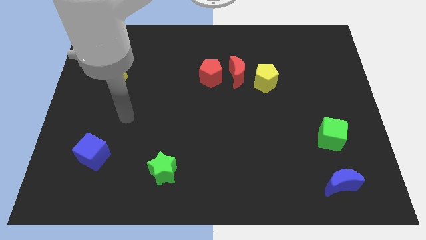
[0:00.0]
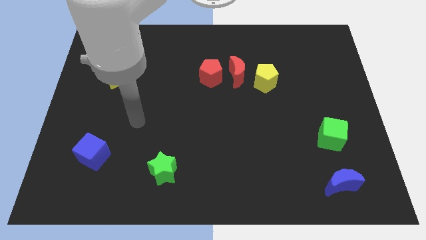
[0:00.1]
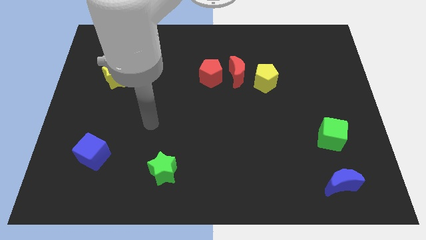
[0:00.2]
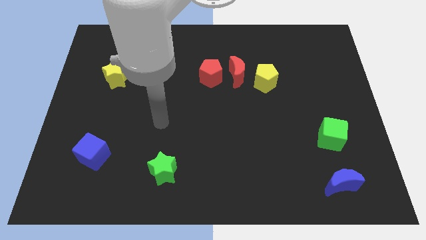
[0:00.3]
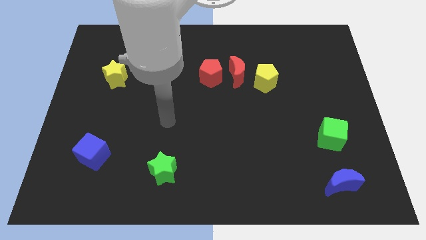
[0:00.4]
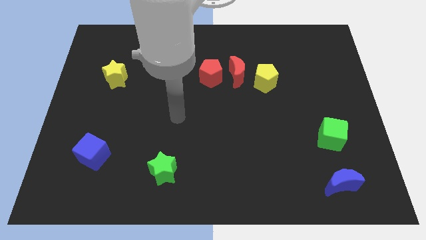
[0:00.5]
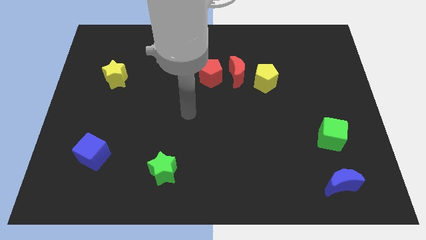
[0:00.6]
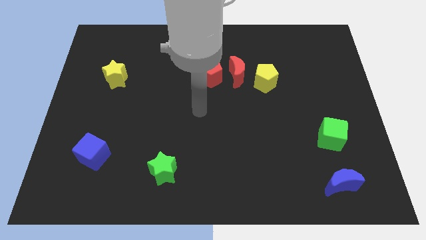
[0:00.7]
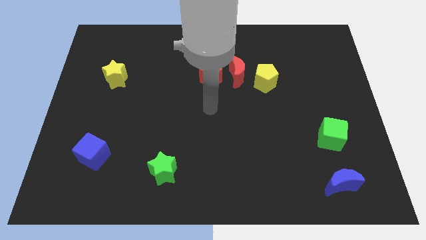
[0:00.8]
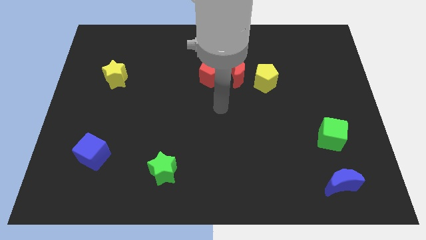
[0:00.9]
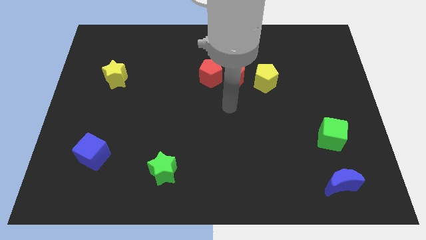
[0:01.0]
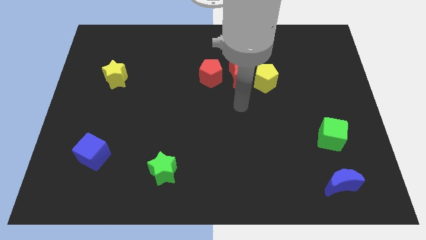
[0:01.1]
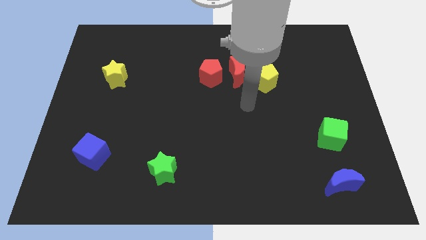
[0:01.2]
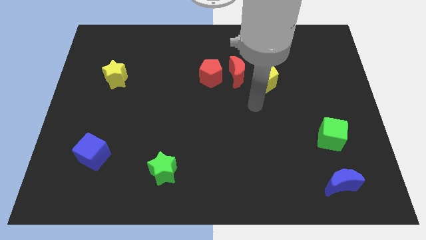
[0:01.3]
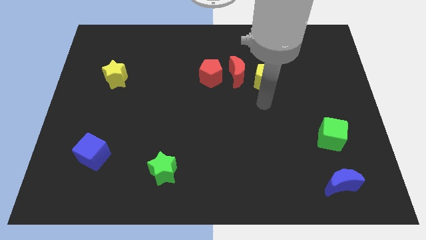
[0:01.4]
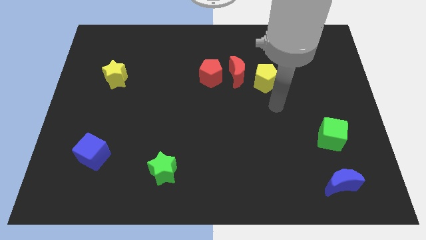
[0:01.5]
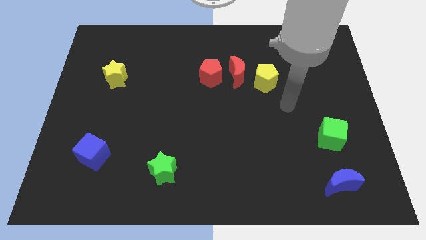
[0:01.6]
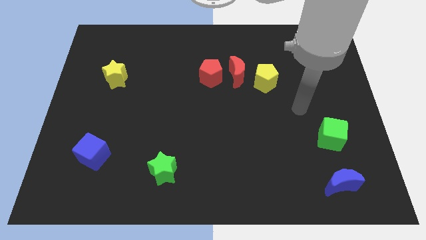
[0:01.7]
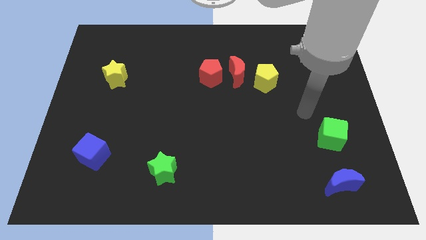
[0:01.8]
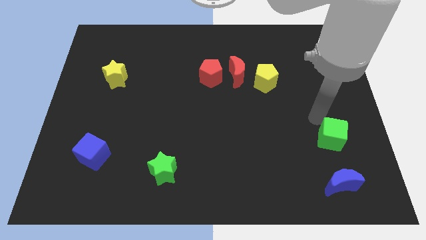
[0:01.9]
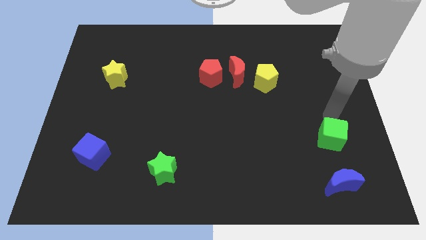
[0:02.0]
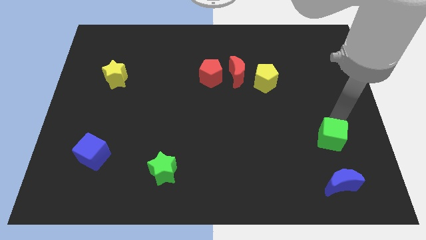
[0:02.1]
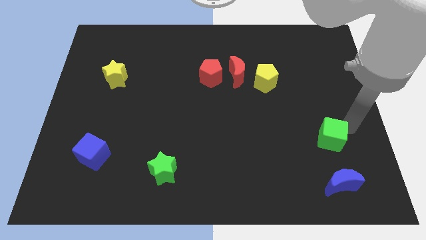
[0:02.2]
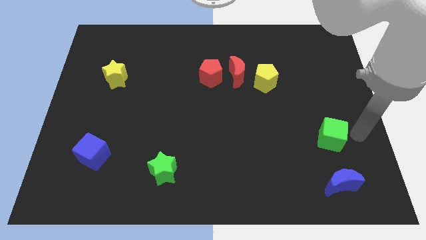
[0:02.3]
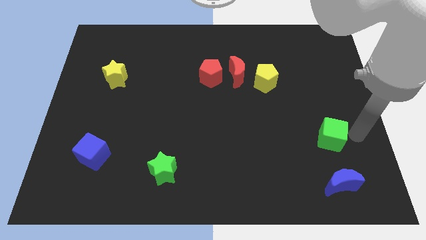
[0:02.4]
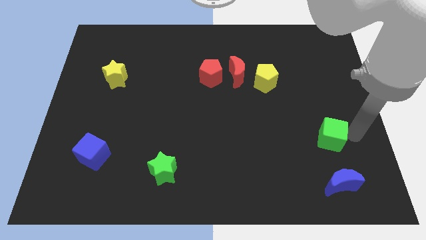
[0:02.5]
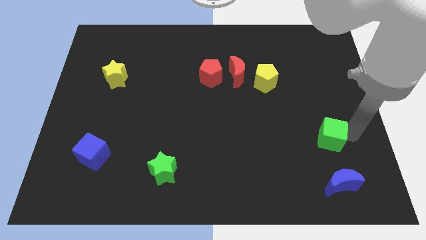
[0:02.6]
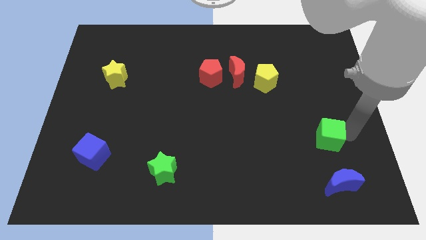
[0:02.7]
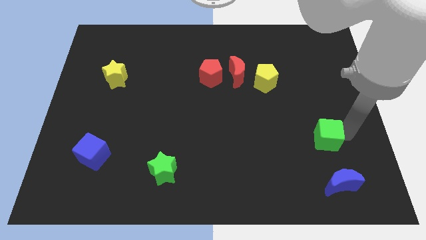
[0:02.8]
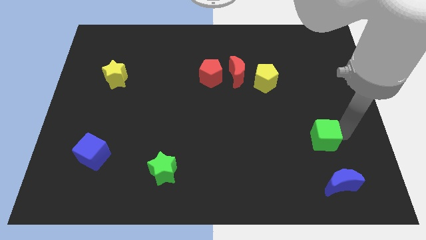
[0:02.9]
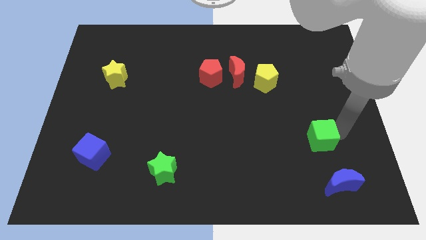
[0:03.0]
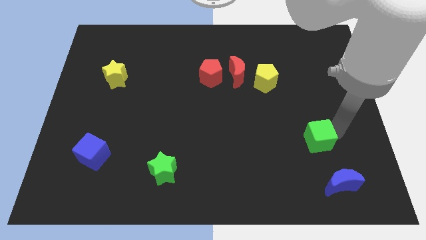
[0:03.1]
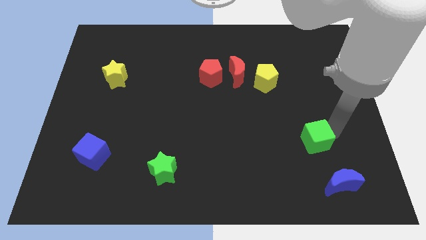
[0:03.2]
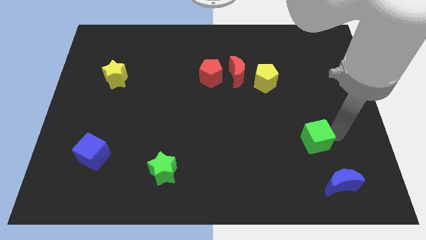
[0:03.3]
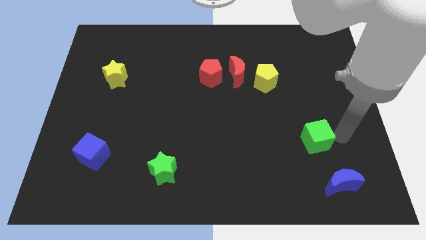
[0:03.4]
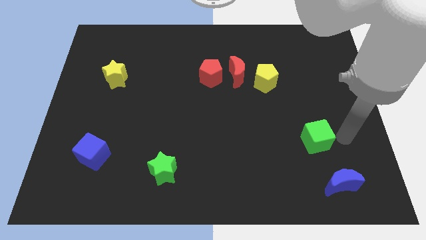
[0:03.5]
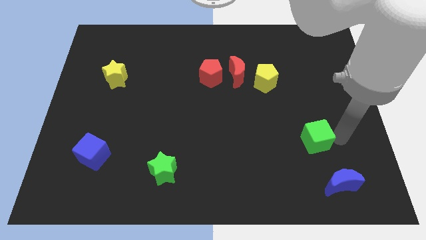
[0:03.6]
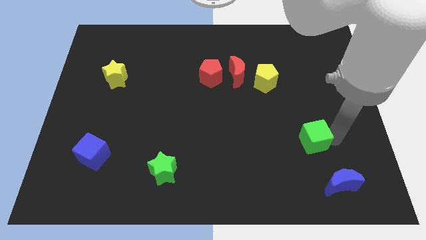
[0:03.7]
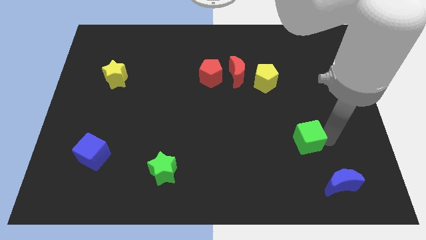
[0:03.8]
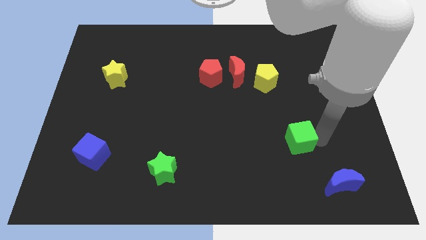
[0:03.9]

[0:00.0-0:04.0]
slightly move the green cube to the left

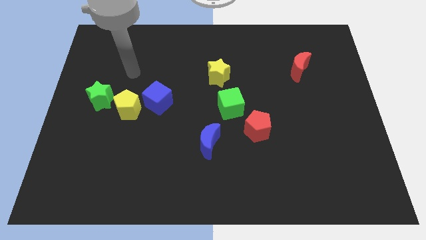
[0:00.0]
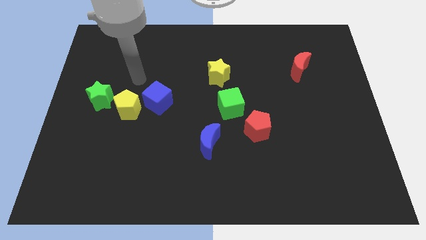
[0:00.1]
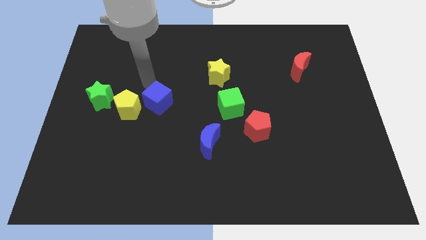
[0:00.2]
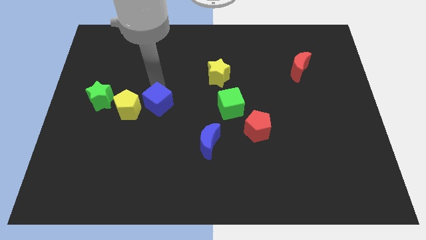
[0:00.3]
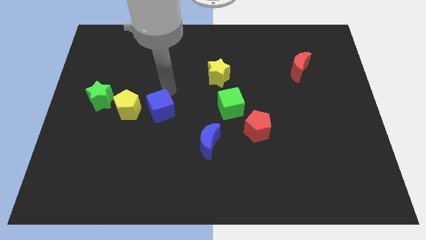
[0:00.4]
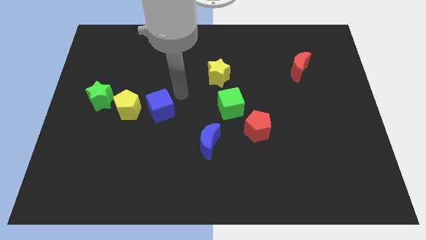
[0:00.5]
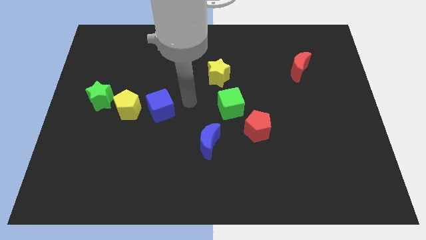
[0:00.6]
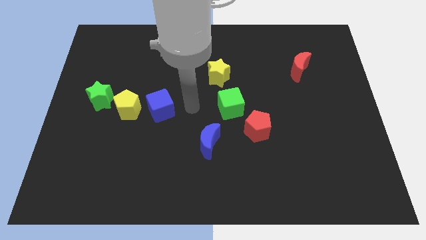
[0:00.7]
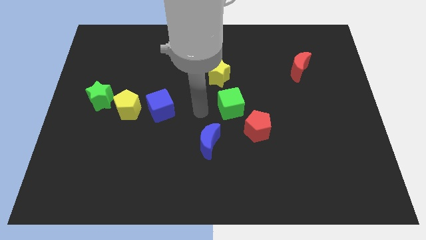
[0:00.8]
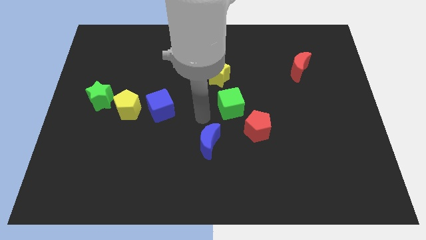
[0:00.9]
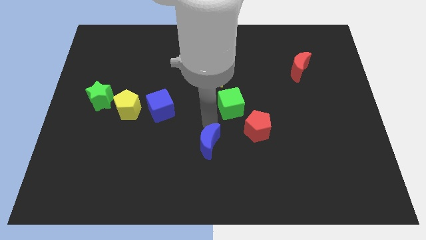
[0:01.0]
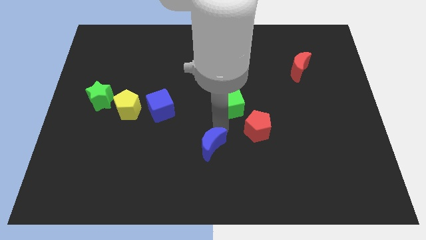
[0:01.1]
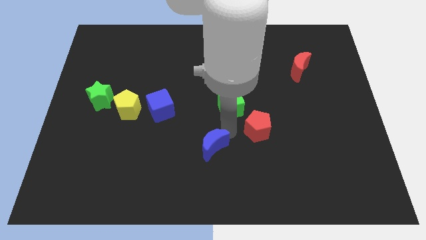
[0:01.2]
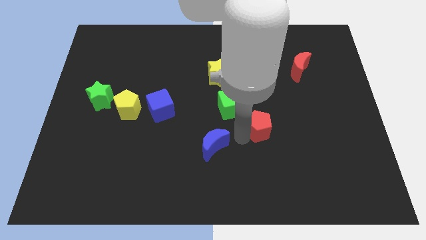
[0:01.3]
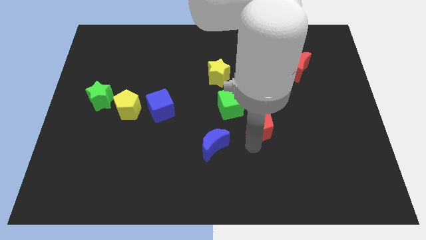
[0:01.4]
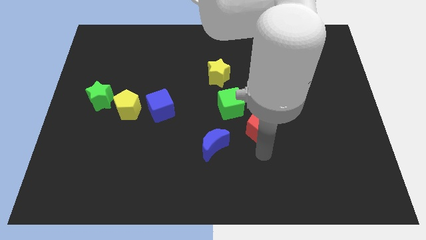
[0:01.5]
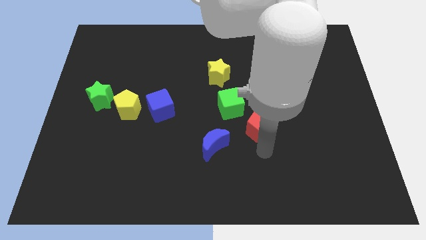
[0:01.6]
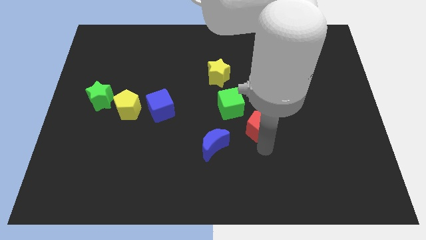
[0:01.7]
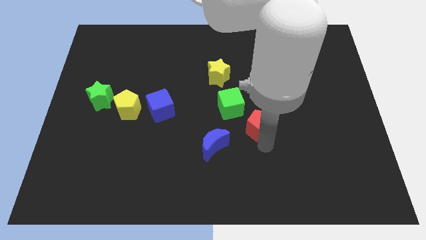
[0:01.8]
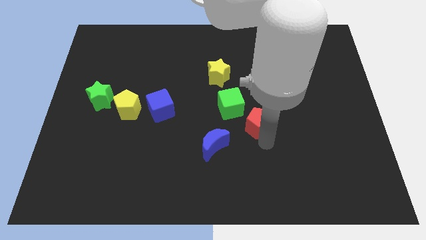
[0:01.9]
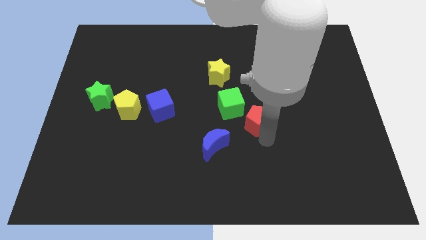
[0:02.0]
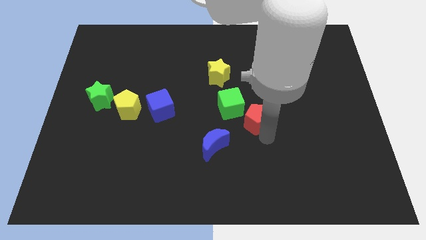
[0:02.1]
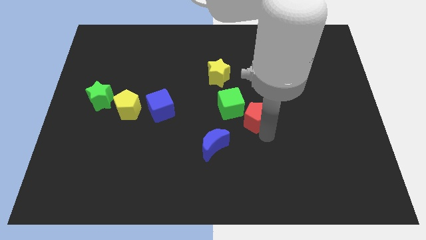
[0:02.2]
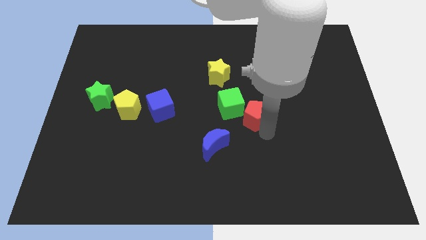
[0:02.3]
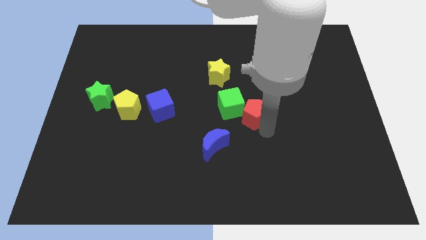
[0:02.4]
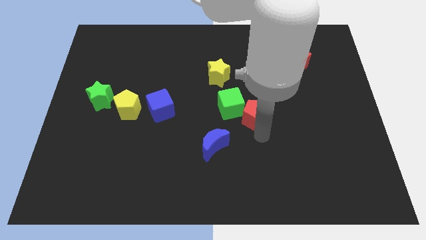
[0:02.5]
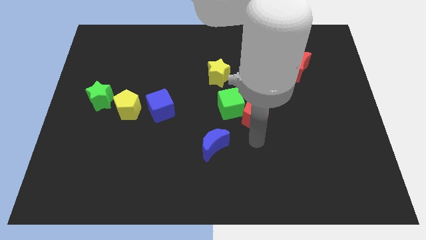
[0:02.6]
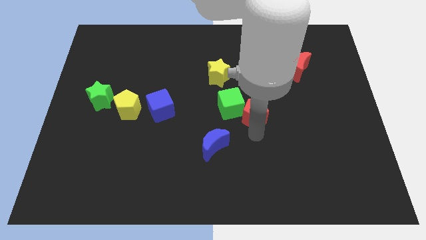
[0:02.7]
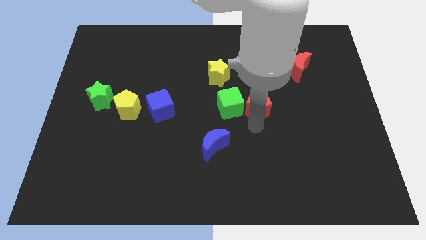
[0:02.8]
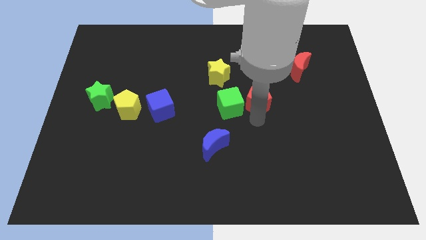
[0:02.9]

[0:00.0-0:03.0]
slightly slide the red pentagon upwards

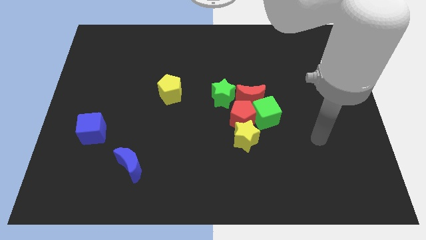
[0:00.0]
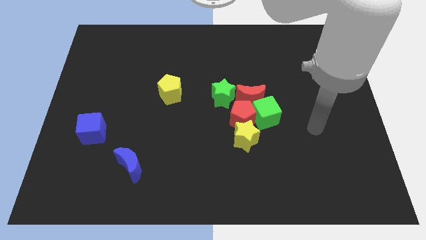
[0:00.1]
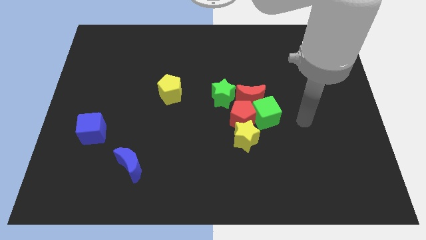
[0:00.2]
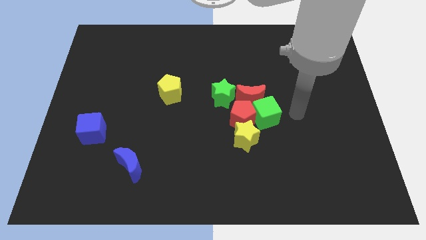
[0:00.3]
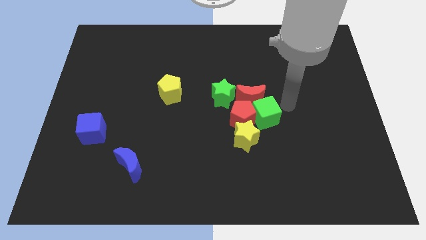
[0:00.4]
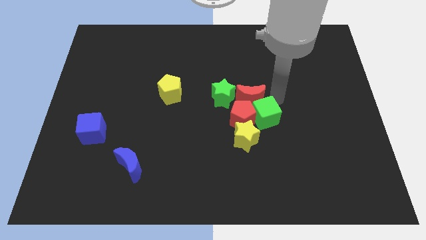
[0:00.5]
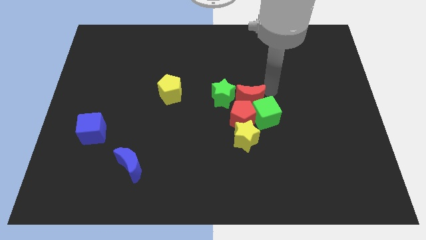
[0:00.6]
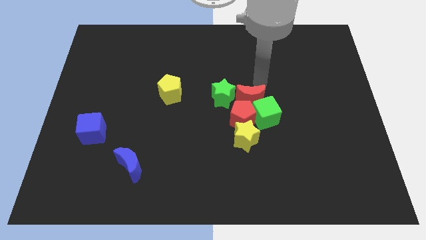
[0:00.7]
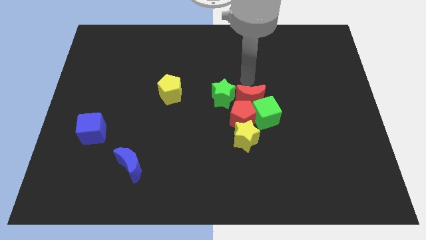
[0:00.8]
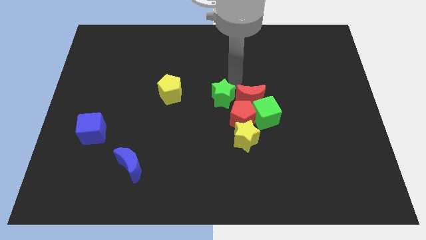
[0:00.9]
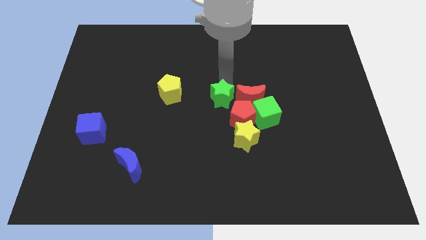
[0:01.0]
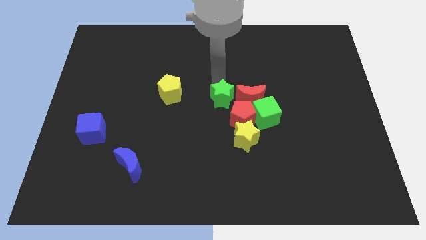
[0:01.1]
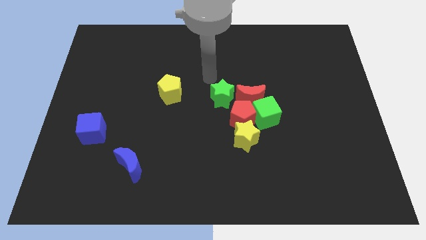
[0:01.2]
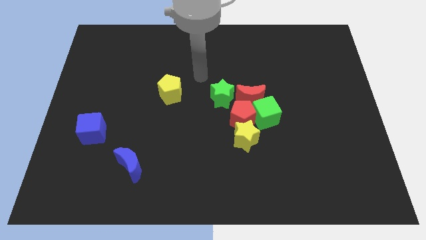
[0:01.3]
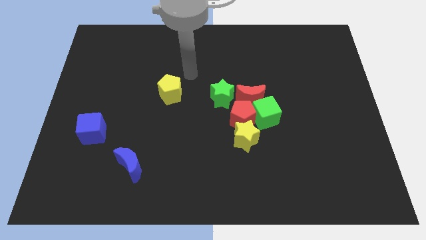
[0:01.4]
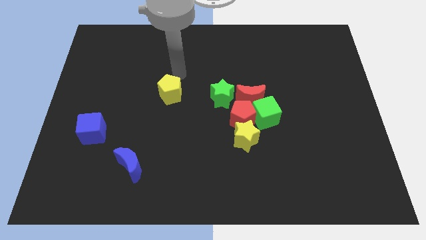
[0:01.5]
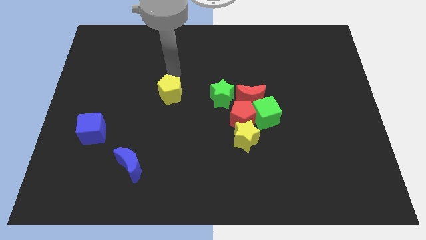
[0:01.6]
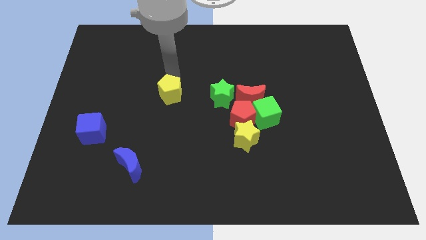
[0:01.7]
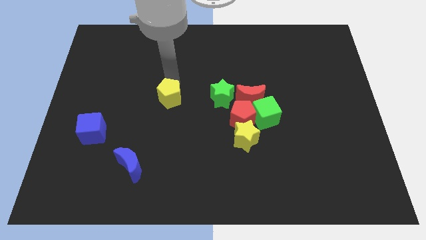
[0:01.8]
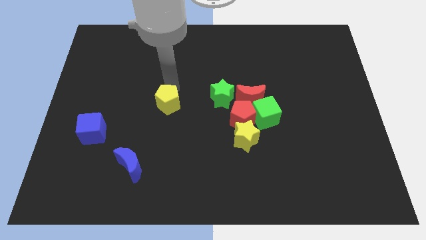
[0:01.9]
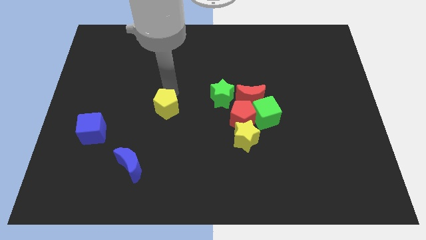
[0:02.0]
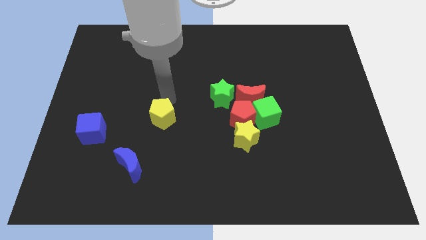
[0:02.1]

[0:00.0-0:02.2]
push the yellow pentagon a little bit down
